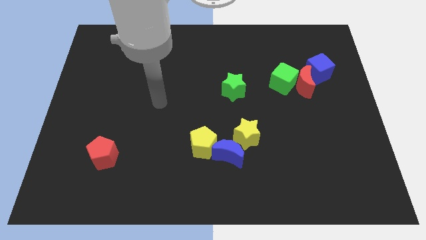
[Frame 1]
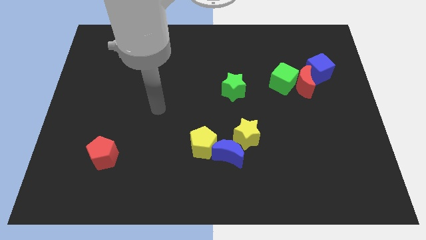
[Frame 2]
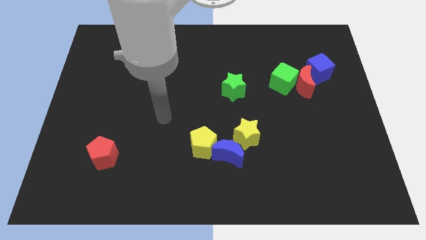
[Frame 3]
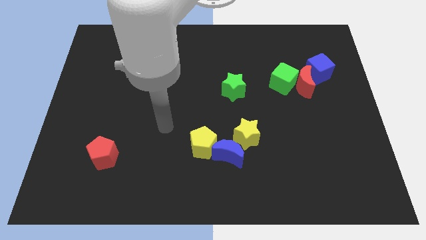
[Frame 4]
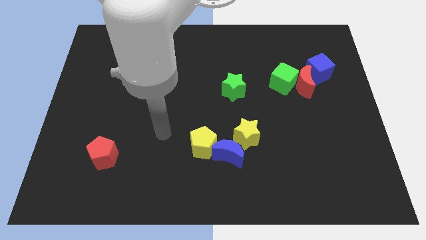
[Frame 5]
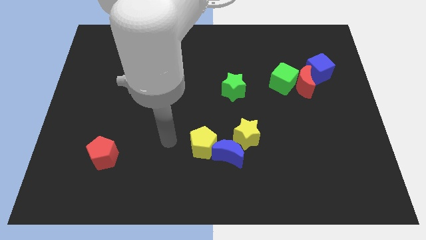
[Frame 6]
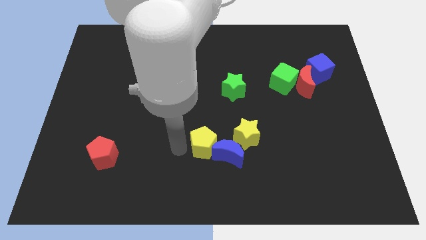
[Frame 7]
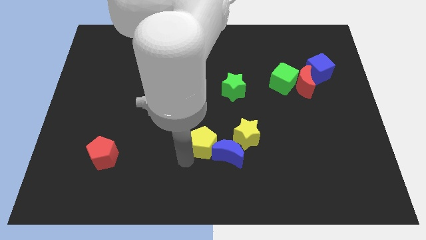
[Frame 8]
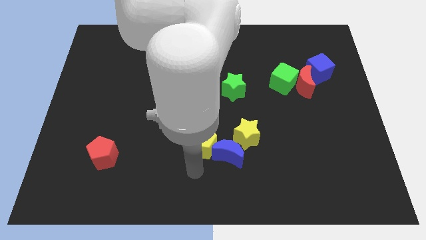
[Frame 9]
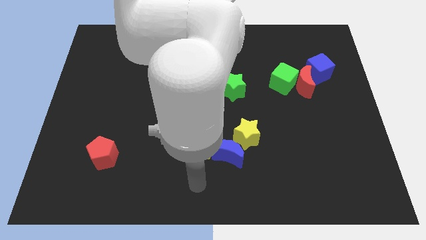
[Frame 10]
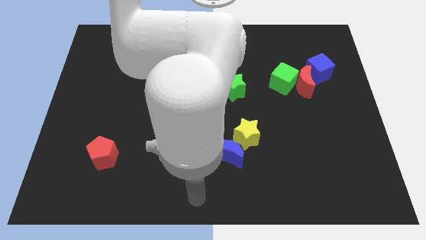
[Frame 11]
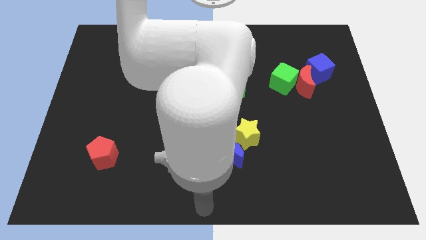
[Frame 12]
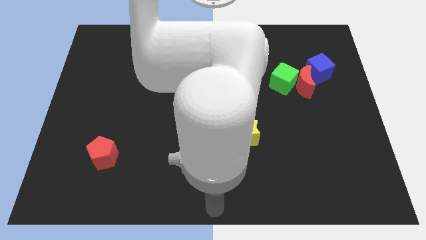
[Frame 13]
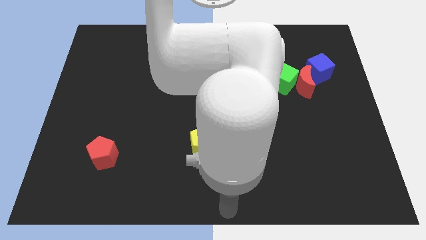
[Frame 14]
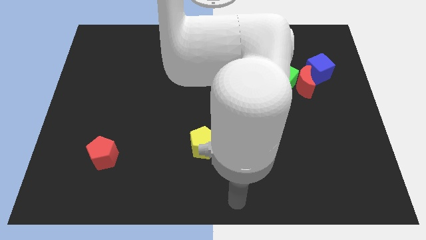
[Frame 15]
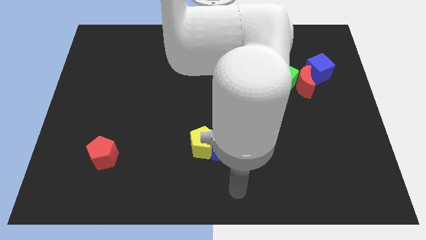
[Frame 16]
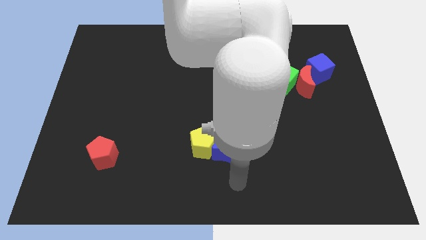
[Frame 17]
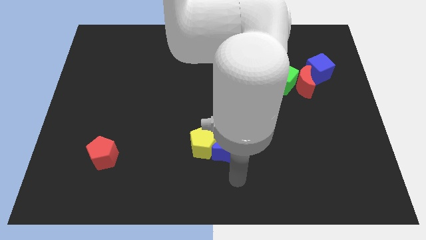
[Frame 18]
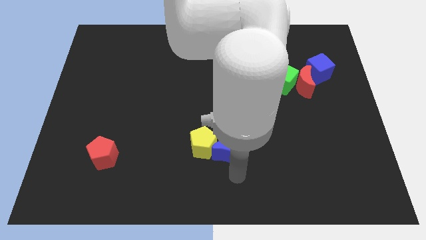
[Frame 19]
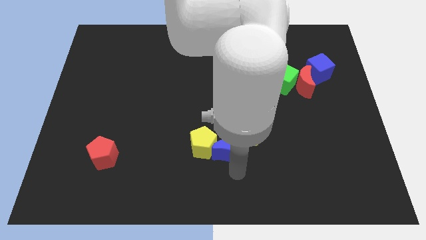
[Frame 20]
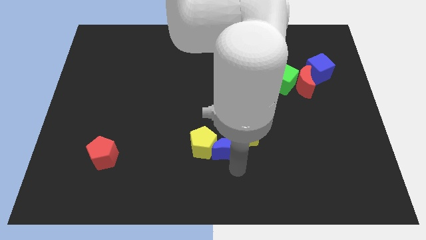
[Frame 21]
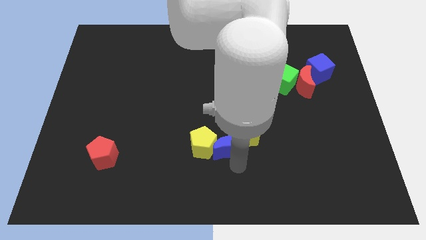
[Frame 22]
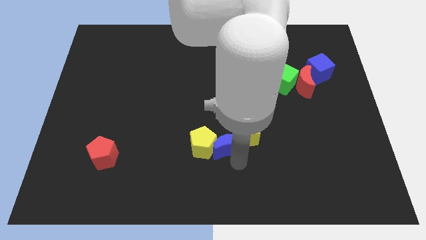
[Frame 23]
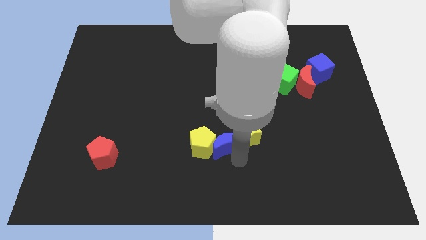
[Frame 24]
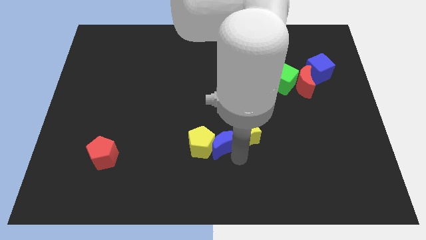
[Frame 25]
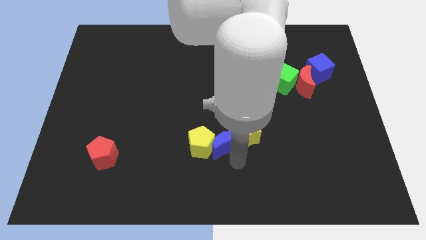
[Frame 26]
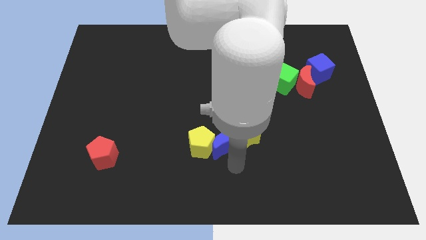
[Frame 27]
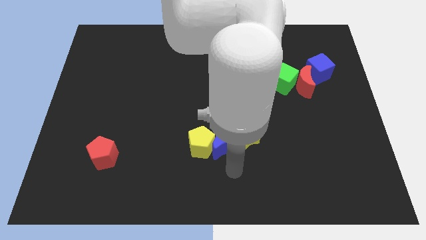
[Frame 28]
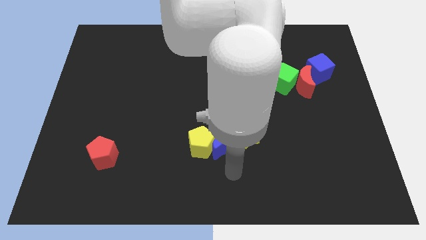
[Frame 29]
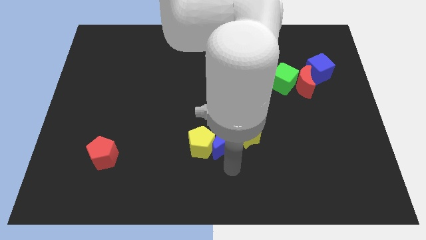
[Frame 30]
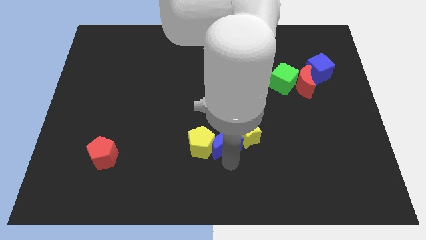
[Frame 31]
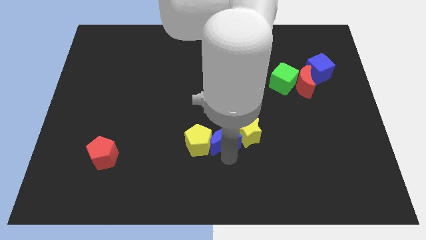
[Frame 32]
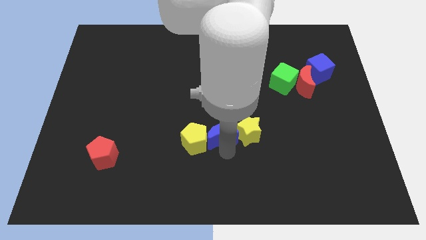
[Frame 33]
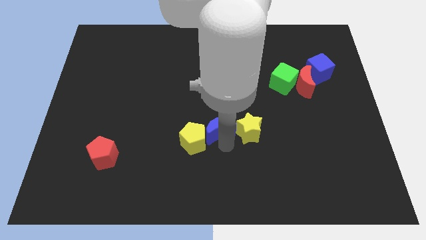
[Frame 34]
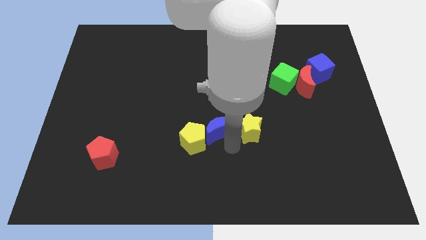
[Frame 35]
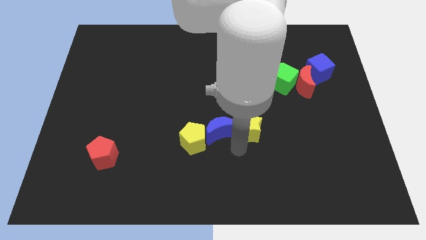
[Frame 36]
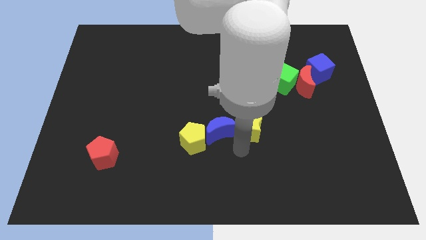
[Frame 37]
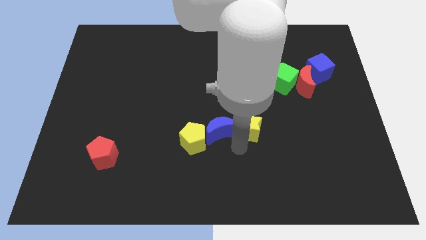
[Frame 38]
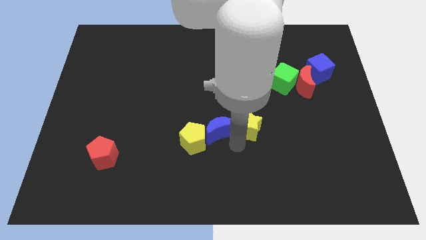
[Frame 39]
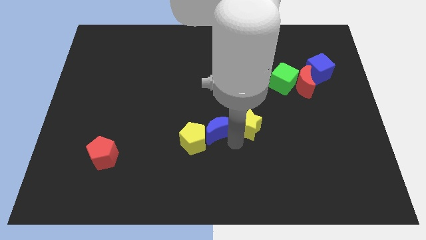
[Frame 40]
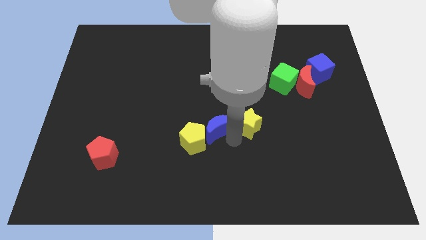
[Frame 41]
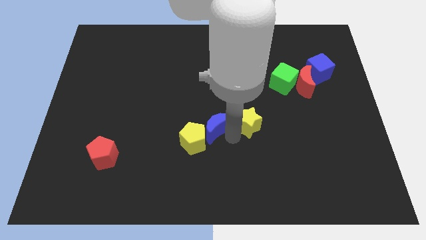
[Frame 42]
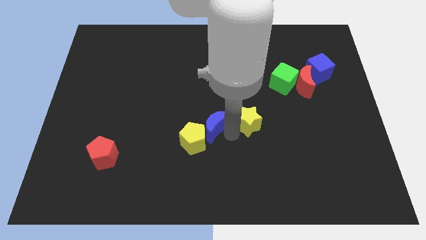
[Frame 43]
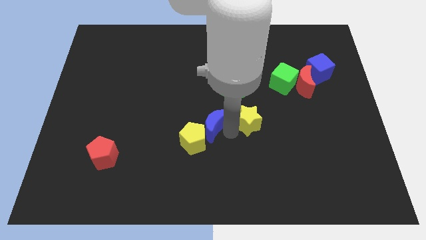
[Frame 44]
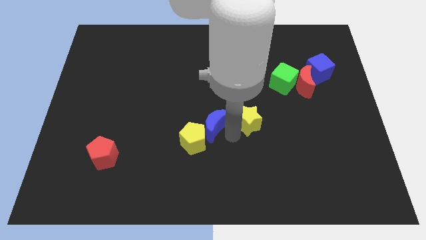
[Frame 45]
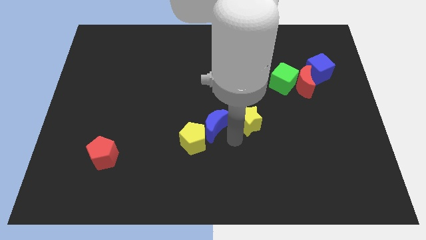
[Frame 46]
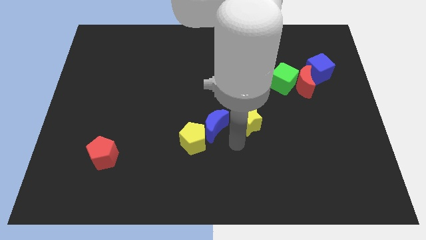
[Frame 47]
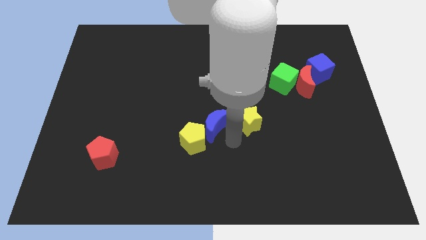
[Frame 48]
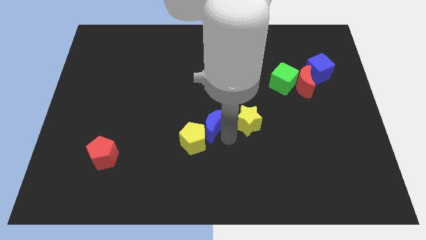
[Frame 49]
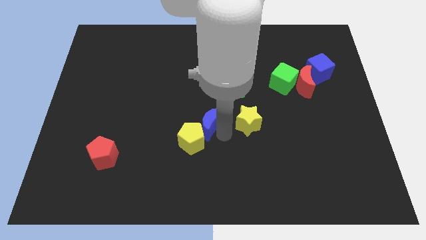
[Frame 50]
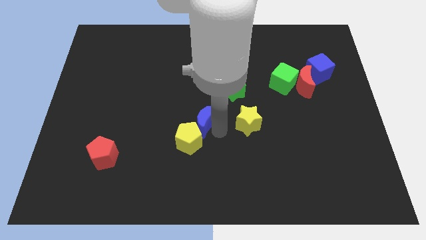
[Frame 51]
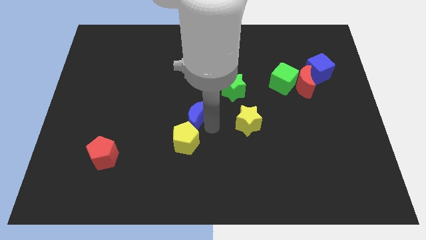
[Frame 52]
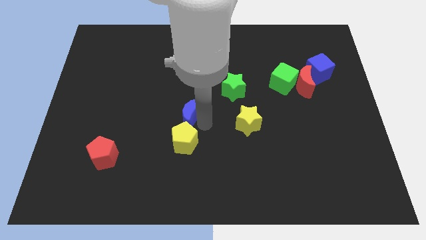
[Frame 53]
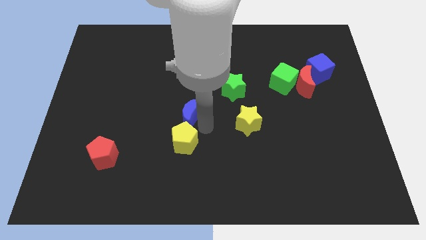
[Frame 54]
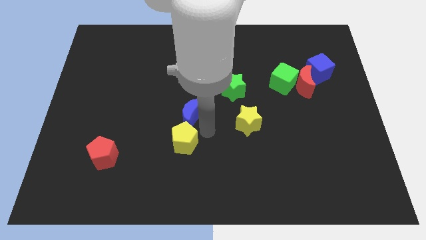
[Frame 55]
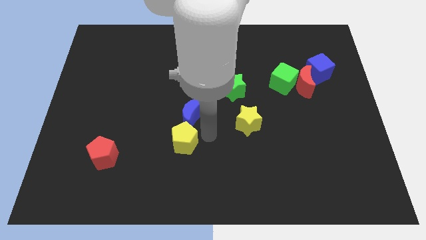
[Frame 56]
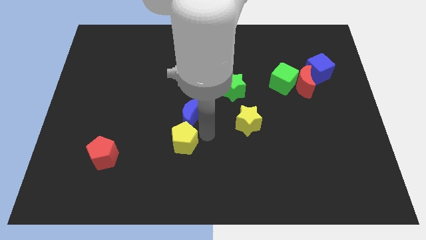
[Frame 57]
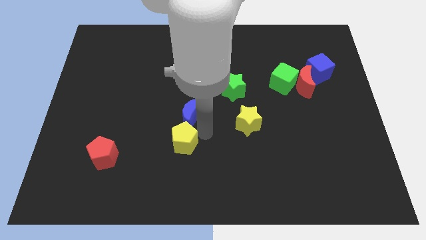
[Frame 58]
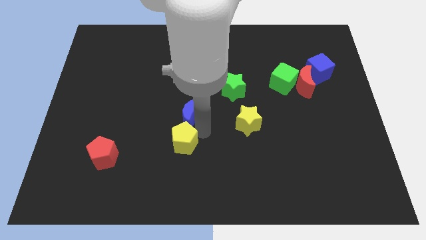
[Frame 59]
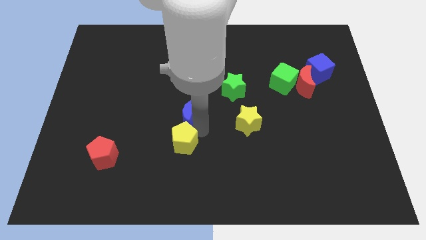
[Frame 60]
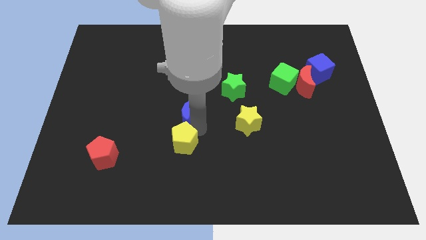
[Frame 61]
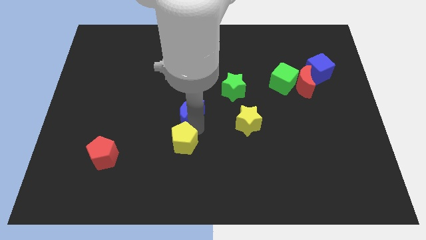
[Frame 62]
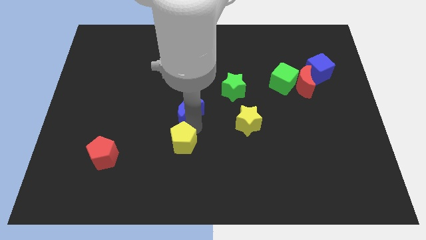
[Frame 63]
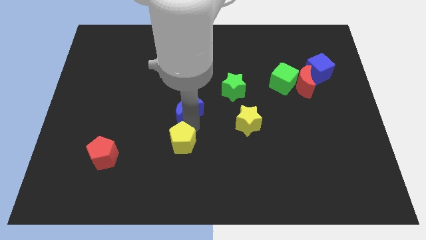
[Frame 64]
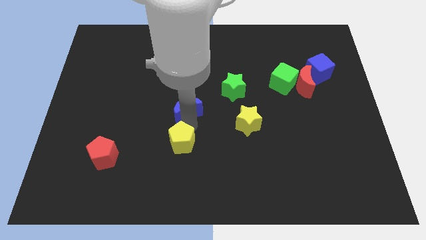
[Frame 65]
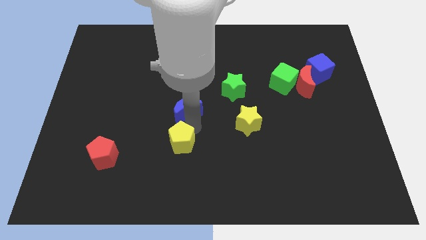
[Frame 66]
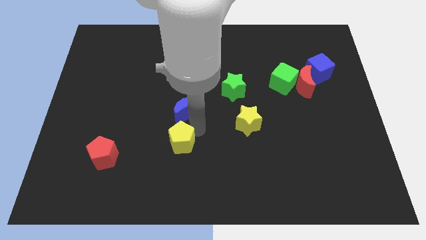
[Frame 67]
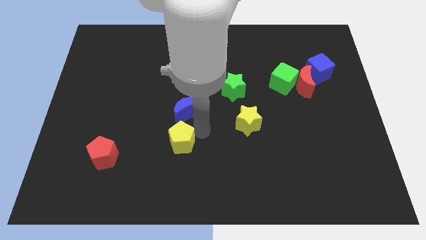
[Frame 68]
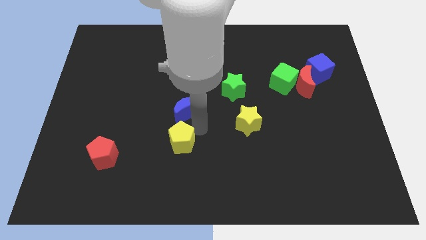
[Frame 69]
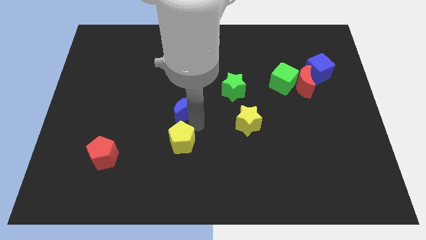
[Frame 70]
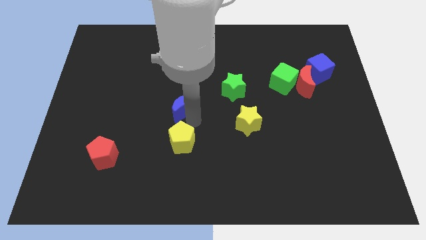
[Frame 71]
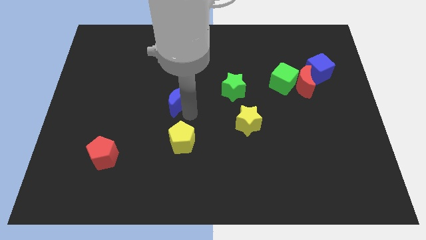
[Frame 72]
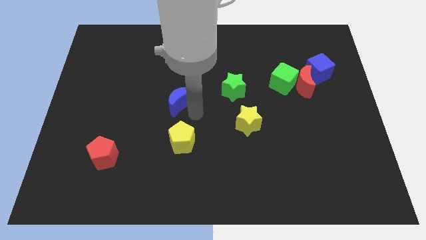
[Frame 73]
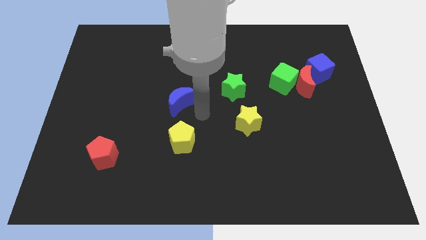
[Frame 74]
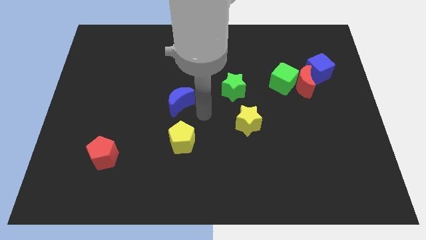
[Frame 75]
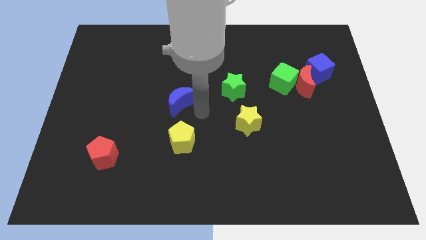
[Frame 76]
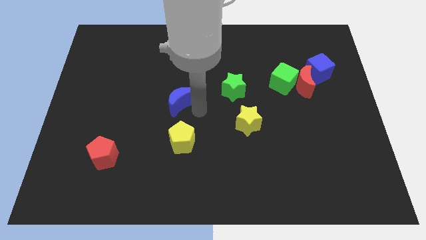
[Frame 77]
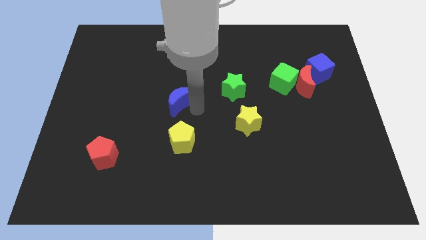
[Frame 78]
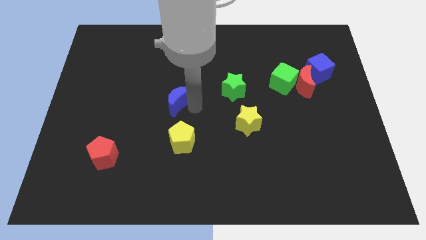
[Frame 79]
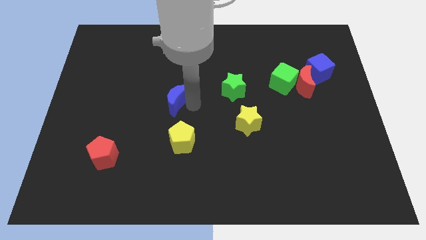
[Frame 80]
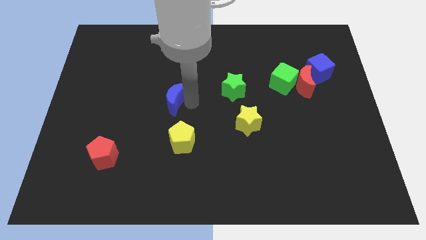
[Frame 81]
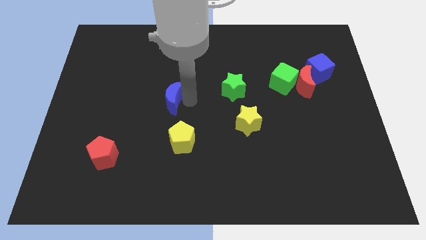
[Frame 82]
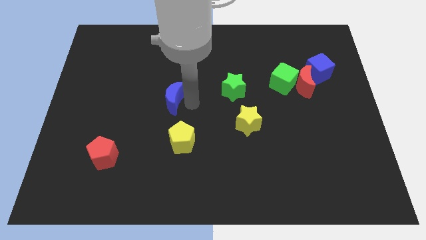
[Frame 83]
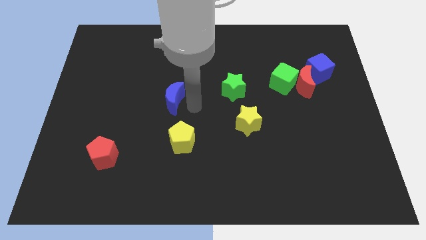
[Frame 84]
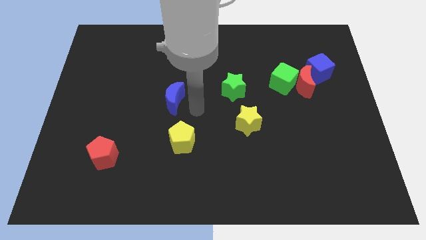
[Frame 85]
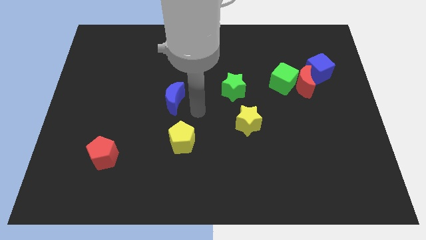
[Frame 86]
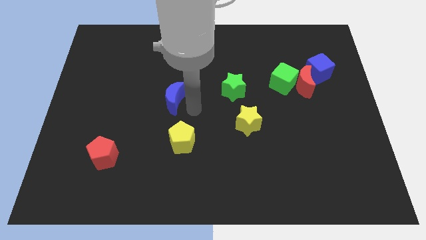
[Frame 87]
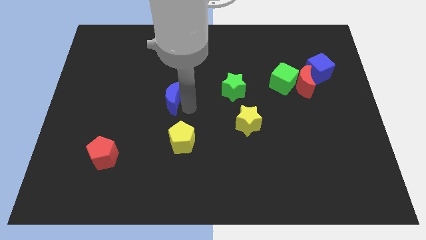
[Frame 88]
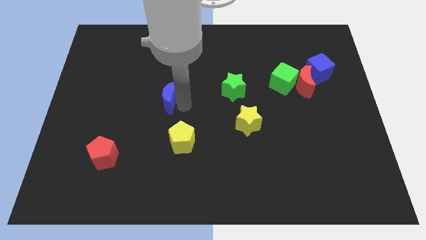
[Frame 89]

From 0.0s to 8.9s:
slide the blue moon up and to the left diagonally
